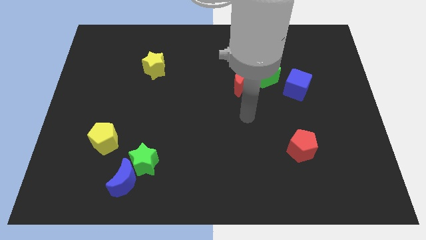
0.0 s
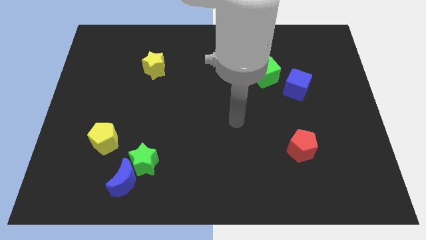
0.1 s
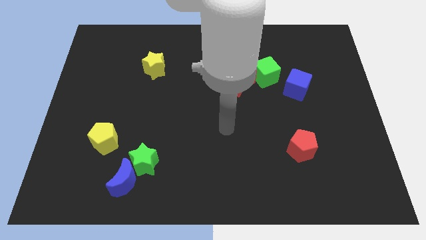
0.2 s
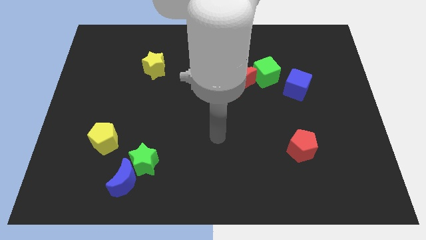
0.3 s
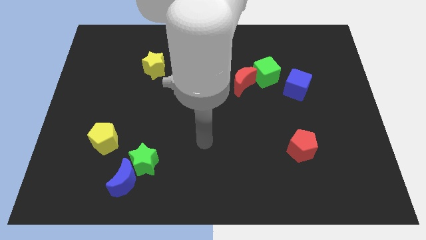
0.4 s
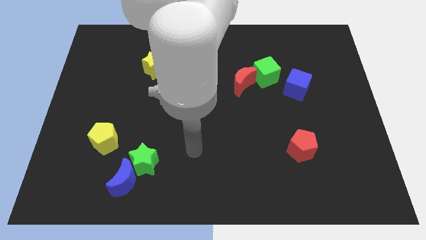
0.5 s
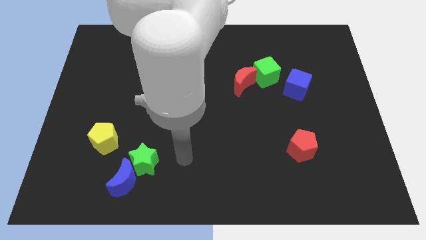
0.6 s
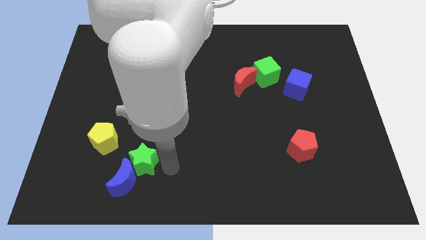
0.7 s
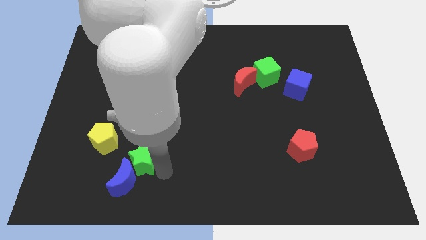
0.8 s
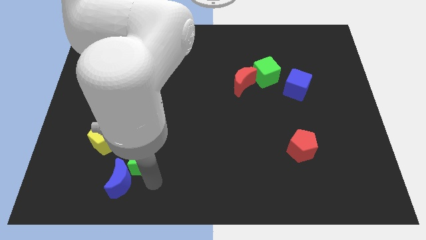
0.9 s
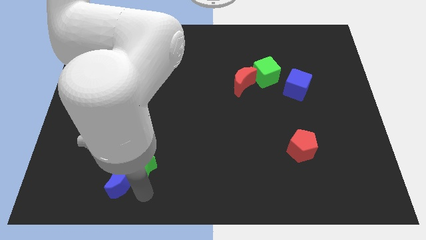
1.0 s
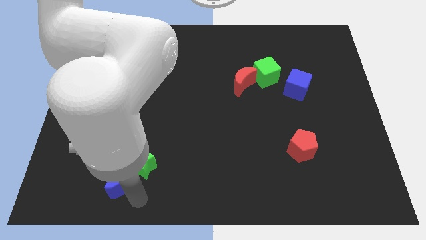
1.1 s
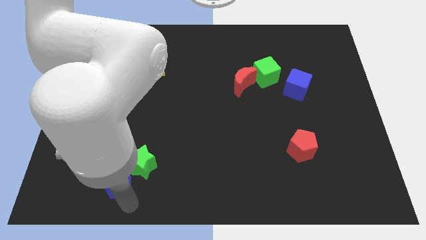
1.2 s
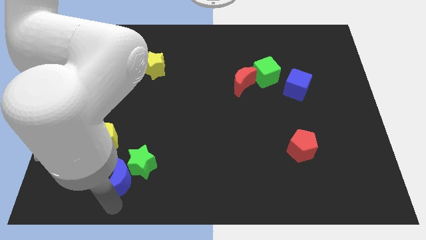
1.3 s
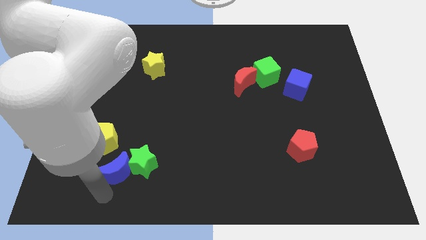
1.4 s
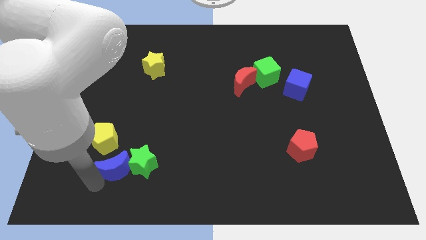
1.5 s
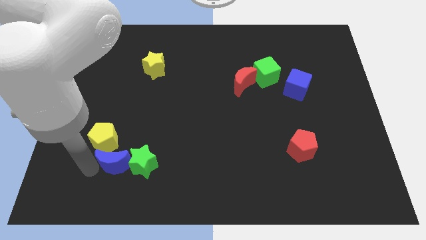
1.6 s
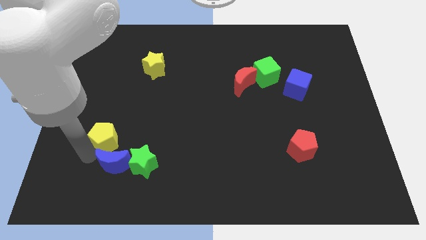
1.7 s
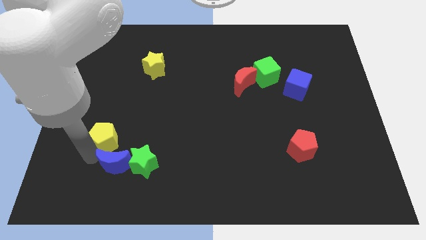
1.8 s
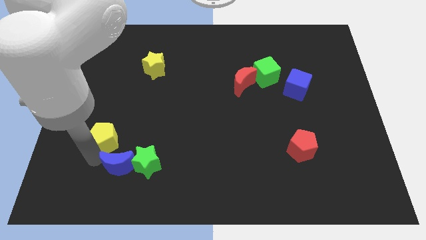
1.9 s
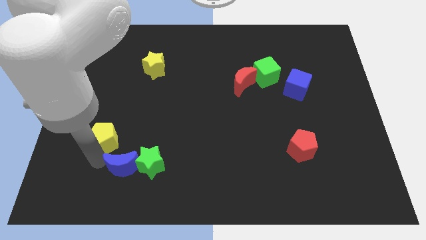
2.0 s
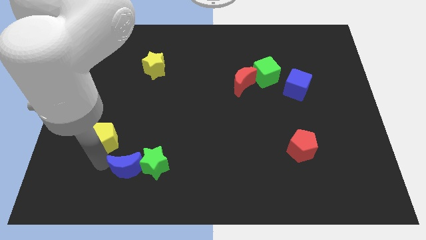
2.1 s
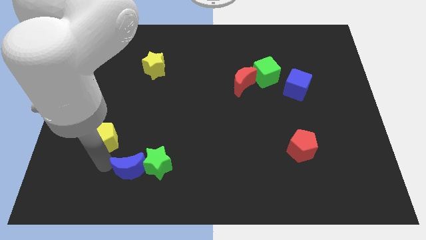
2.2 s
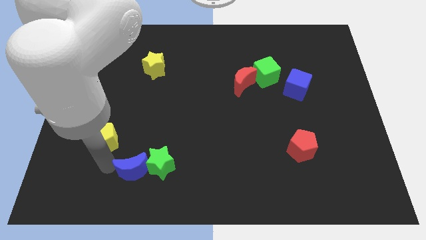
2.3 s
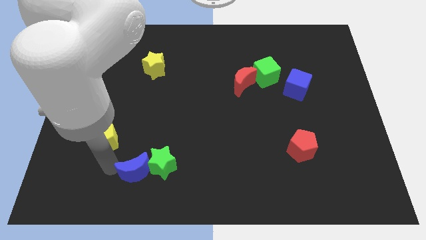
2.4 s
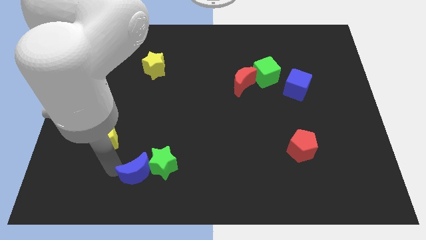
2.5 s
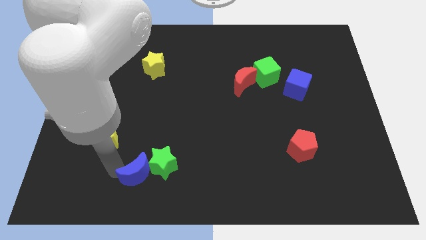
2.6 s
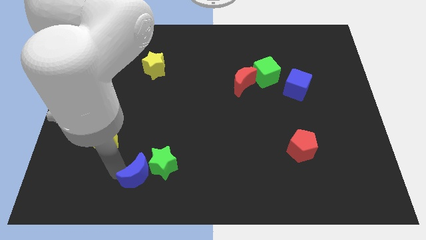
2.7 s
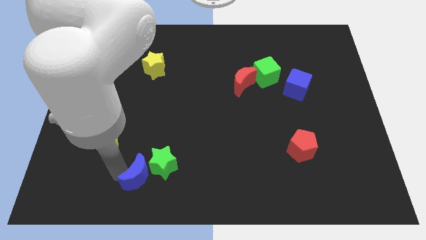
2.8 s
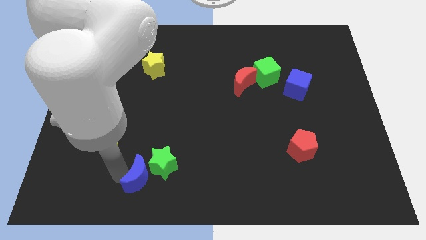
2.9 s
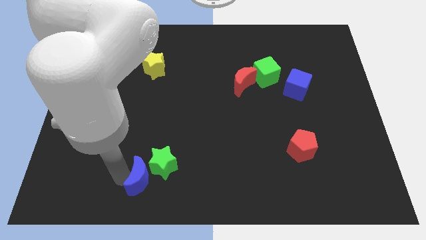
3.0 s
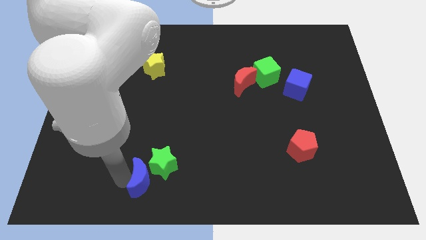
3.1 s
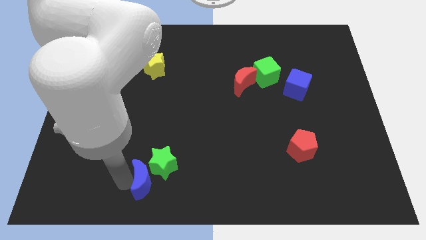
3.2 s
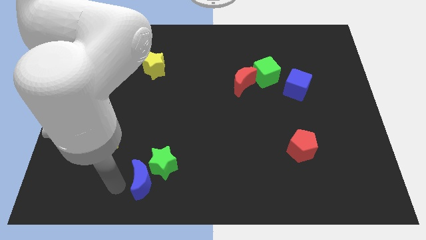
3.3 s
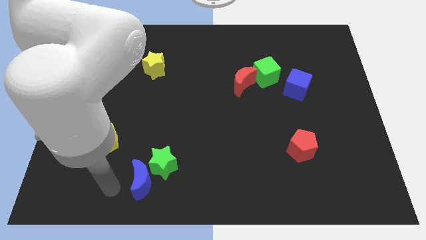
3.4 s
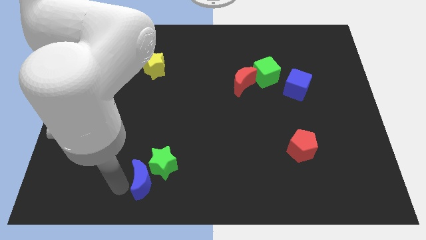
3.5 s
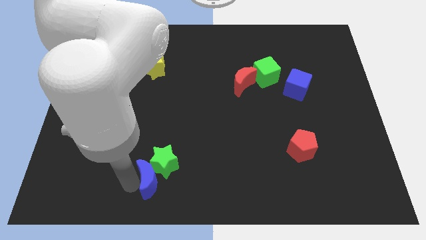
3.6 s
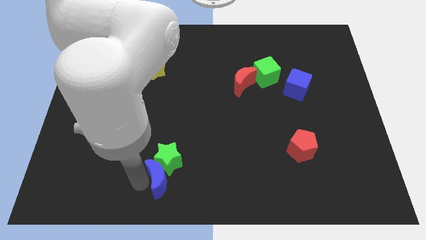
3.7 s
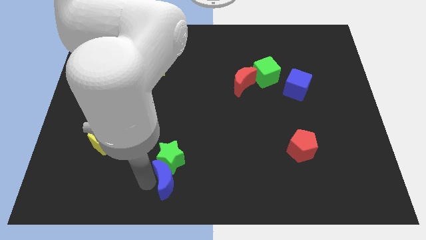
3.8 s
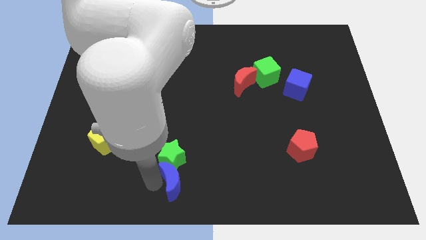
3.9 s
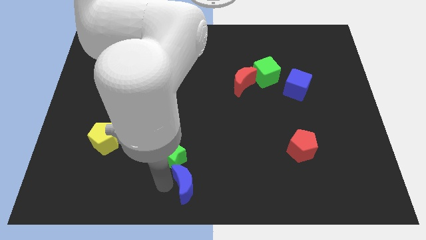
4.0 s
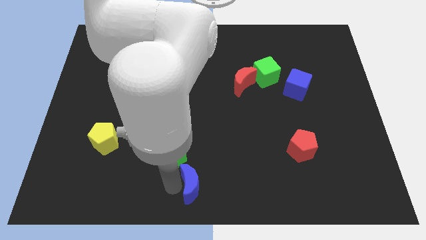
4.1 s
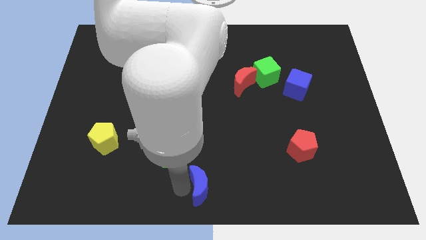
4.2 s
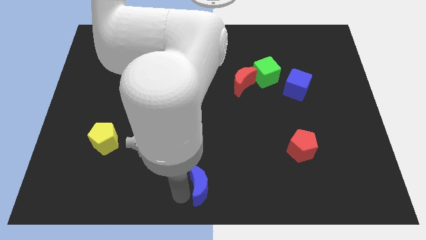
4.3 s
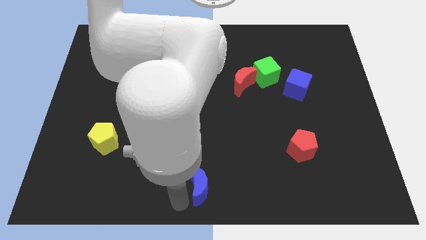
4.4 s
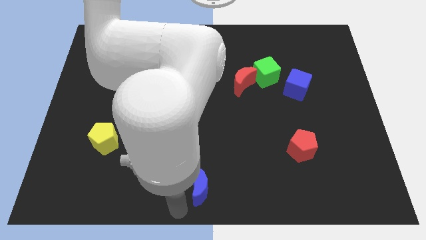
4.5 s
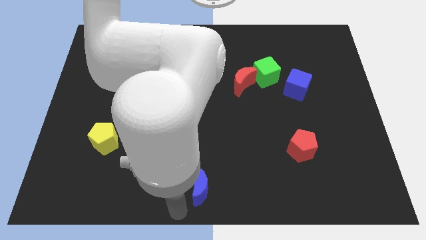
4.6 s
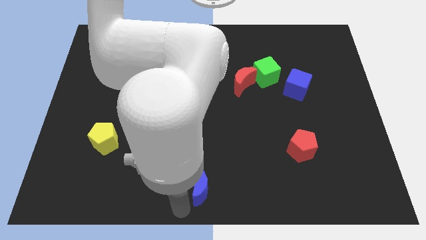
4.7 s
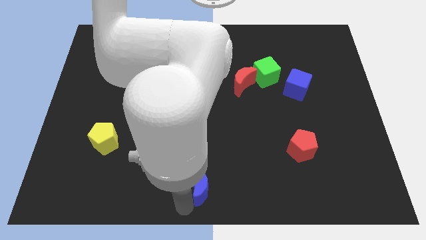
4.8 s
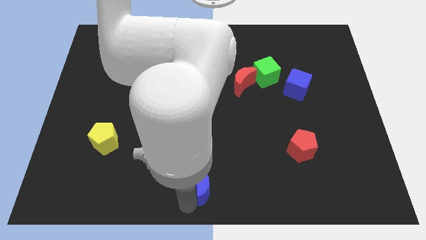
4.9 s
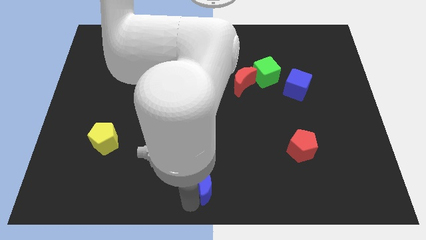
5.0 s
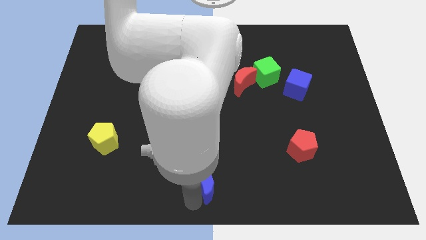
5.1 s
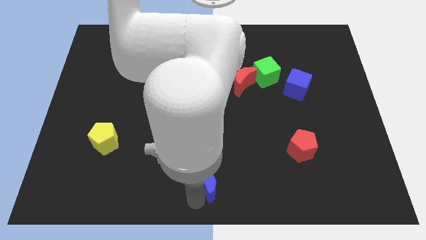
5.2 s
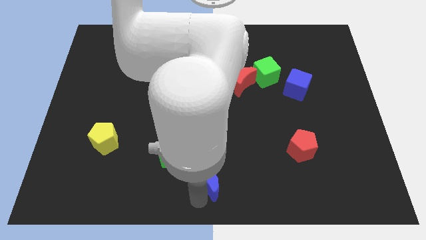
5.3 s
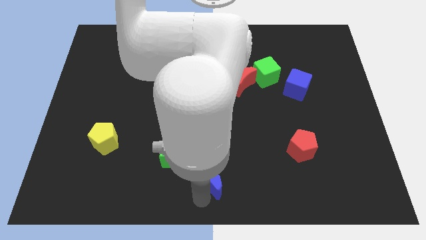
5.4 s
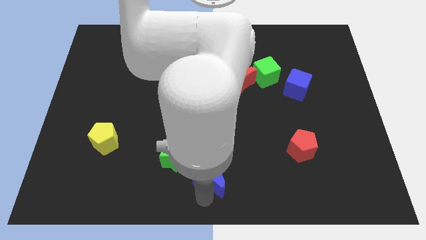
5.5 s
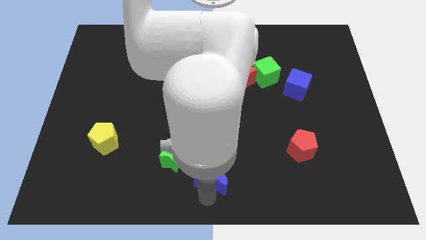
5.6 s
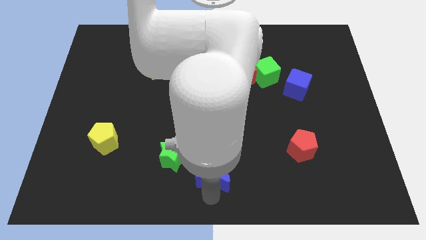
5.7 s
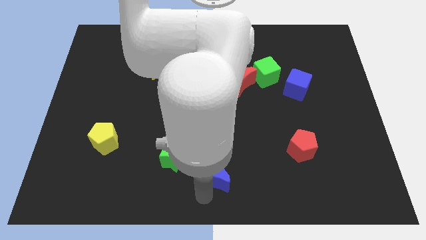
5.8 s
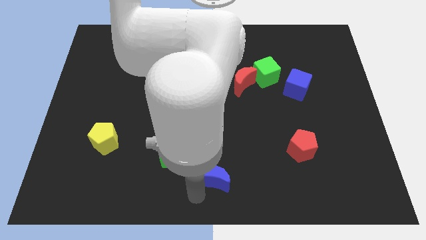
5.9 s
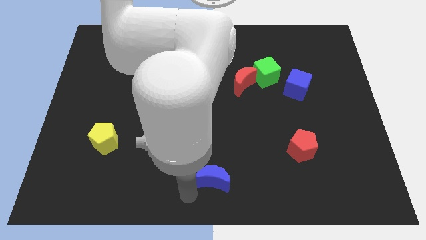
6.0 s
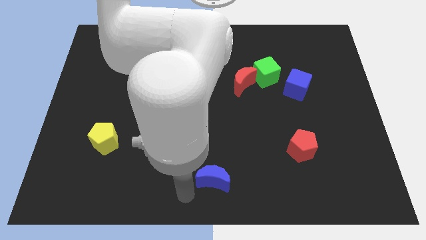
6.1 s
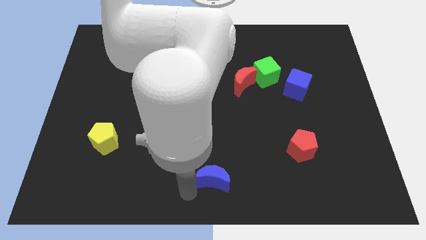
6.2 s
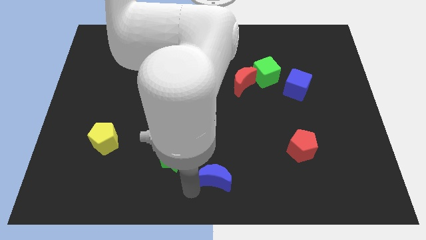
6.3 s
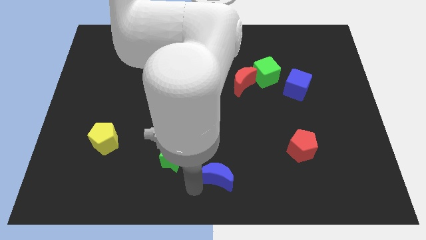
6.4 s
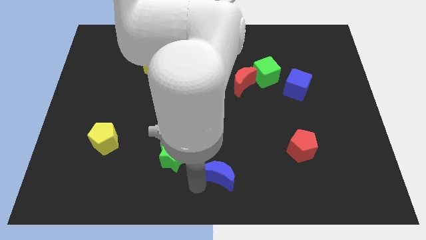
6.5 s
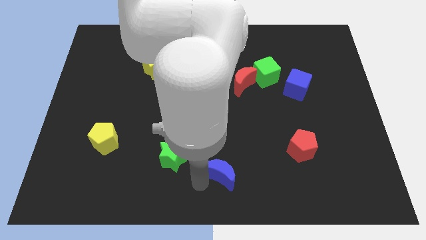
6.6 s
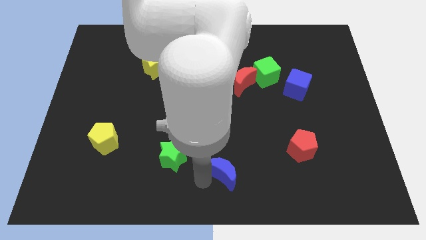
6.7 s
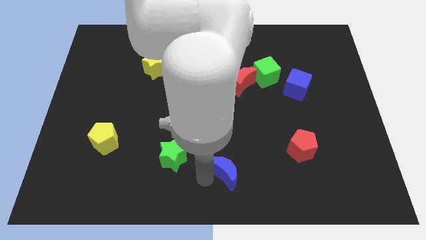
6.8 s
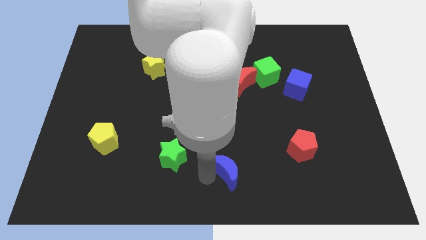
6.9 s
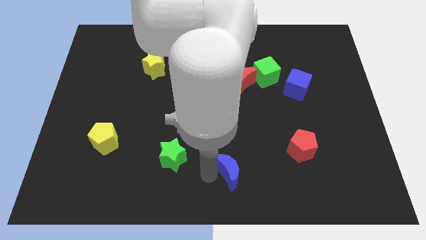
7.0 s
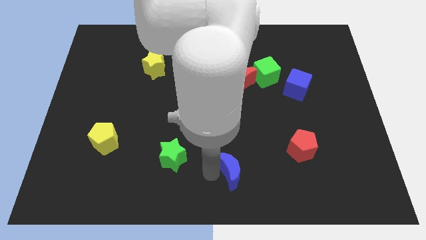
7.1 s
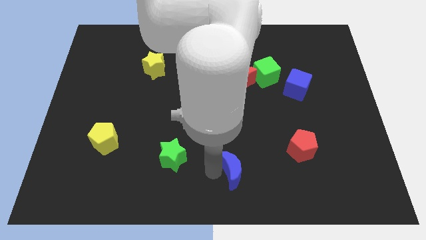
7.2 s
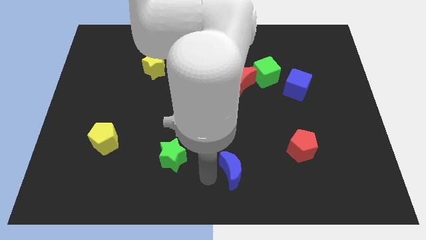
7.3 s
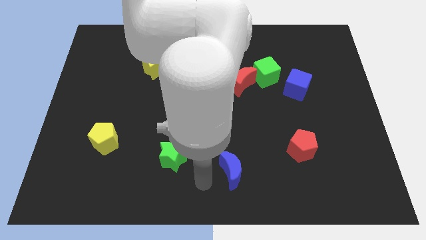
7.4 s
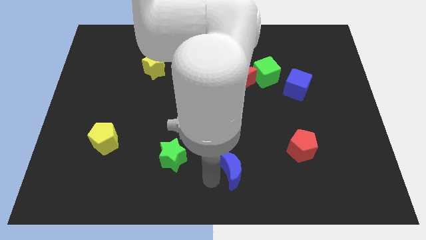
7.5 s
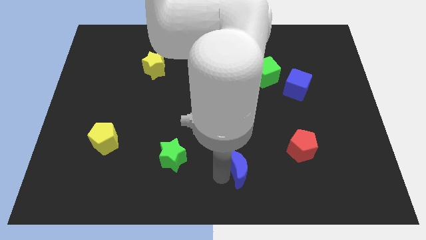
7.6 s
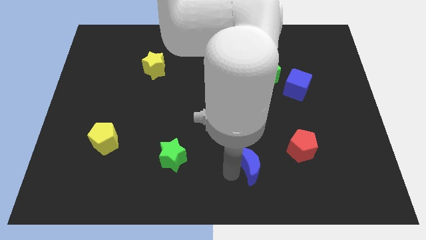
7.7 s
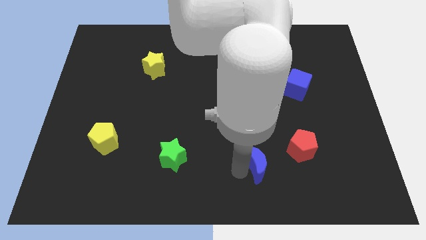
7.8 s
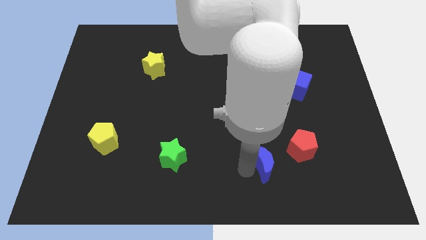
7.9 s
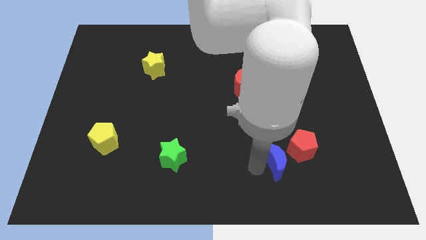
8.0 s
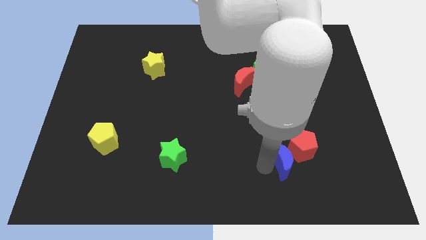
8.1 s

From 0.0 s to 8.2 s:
push the blue moon to the red pentagon

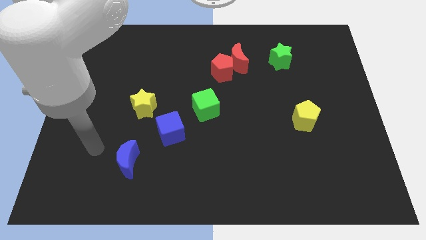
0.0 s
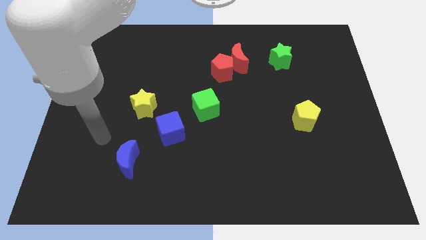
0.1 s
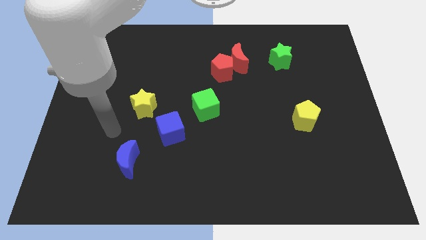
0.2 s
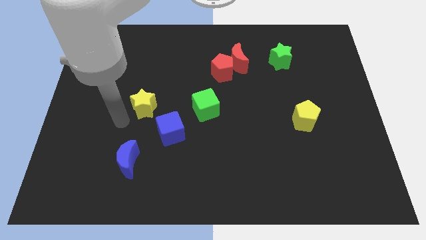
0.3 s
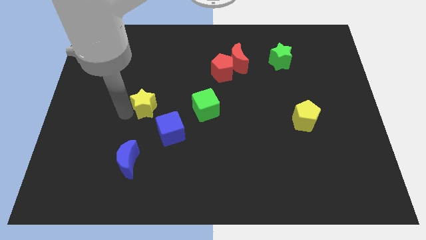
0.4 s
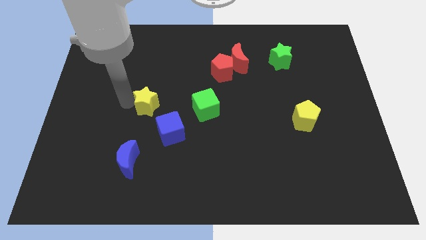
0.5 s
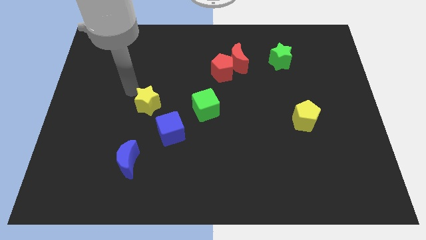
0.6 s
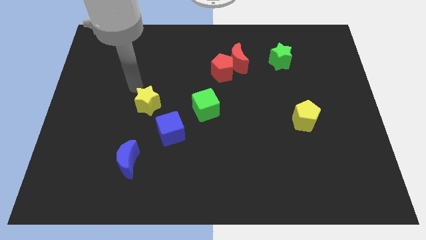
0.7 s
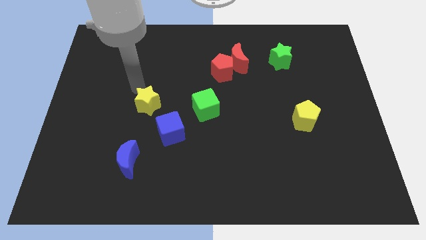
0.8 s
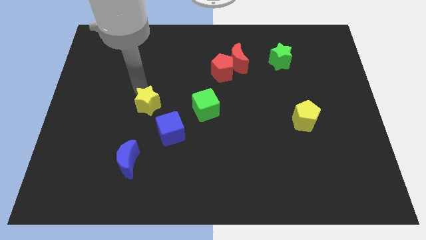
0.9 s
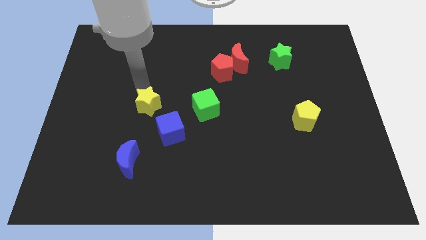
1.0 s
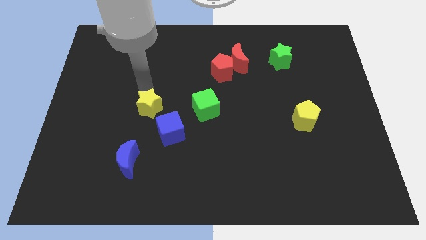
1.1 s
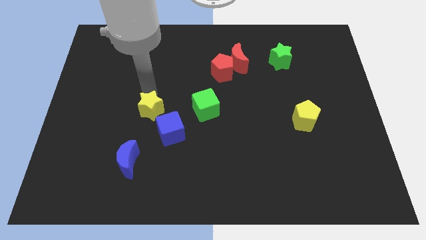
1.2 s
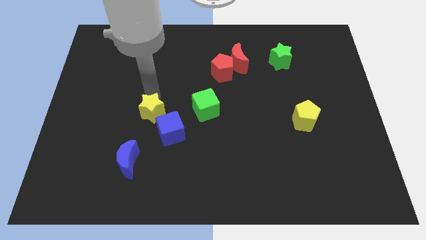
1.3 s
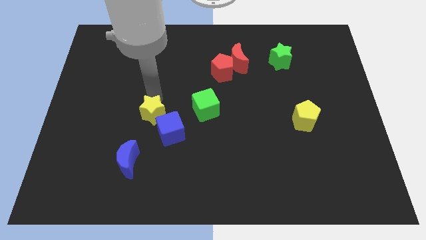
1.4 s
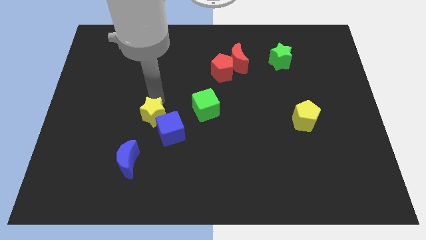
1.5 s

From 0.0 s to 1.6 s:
slide the yellow star close to the blue cube
